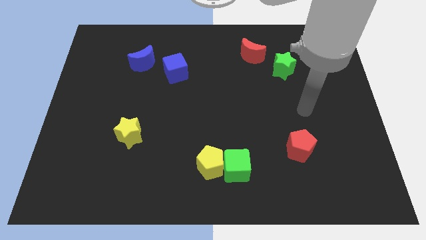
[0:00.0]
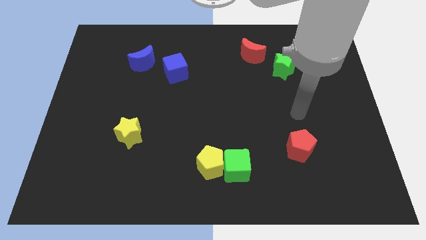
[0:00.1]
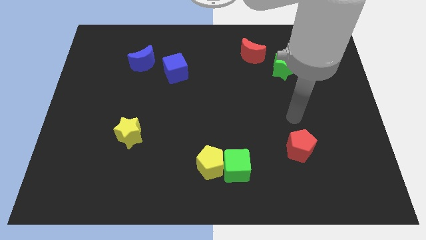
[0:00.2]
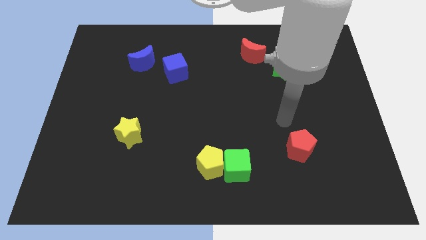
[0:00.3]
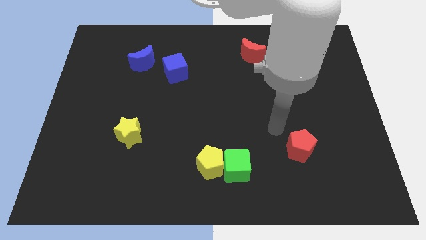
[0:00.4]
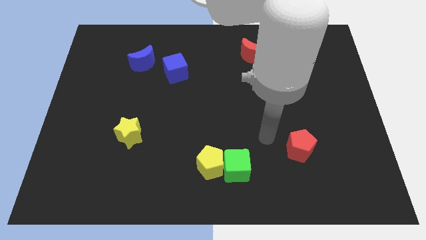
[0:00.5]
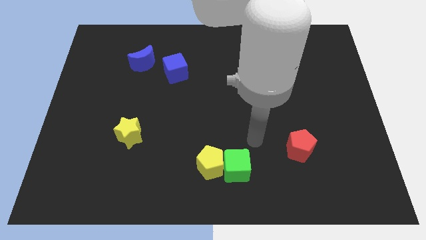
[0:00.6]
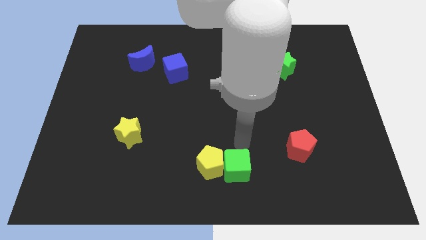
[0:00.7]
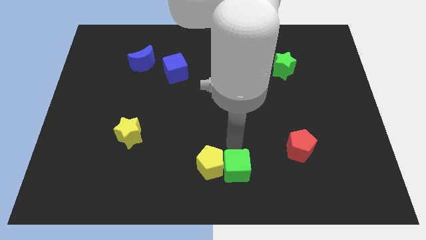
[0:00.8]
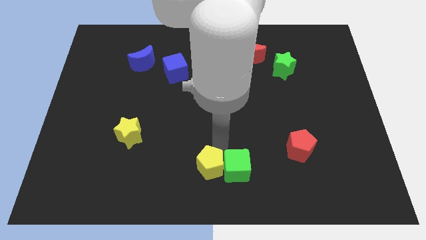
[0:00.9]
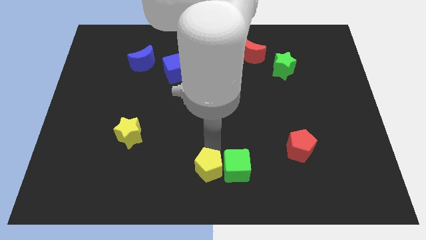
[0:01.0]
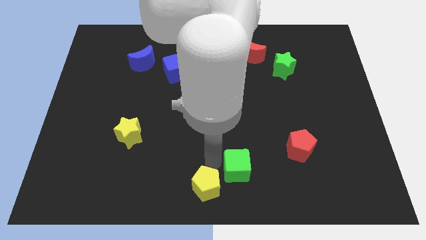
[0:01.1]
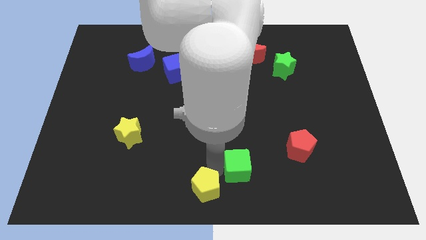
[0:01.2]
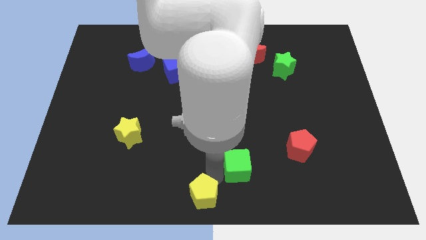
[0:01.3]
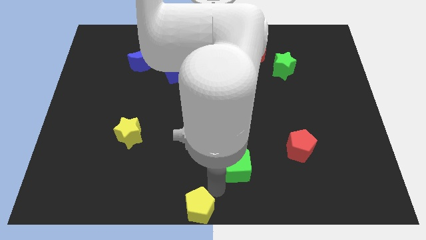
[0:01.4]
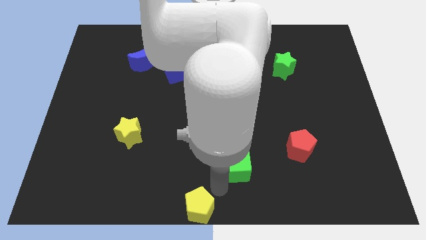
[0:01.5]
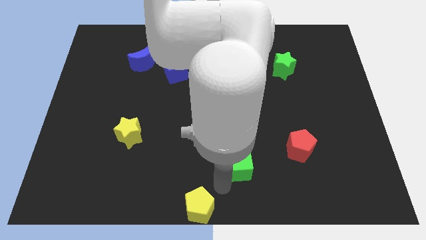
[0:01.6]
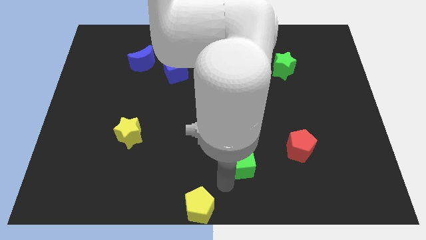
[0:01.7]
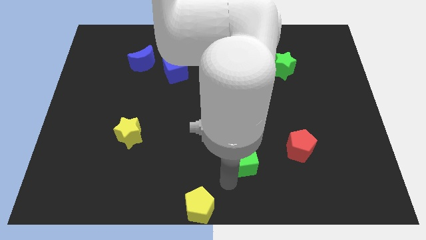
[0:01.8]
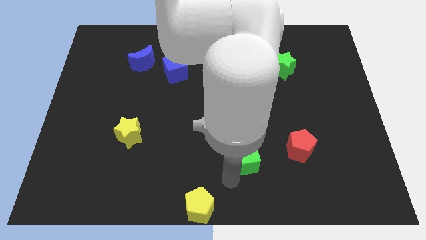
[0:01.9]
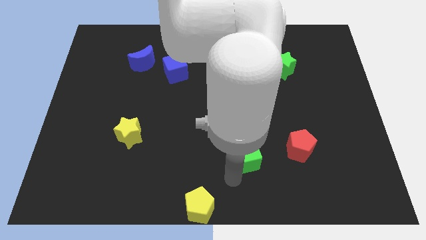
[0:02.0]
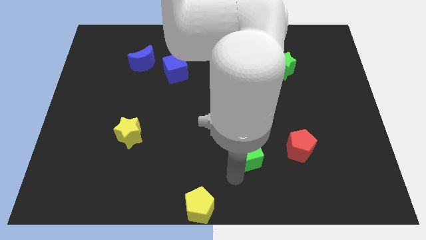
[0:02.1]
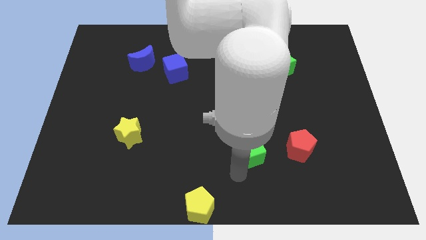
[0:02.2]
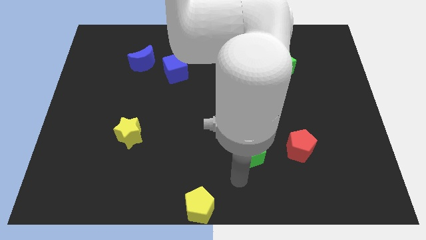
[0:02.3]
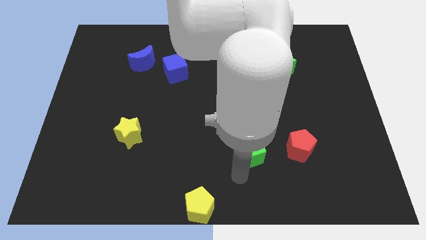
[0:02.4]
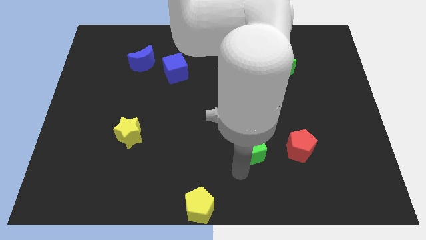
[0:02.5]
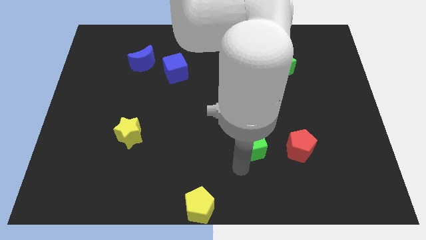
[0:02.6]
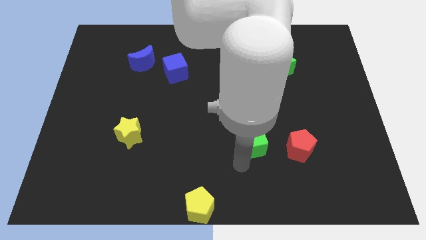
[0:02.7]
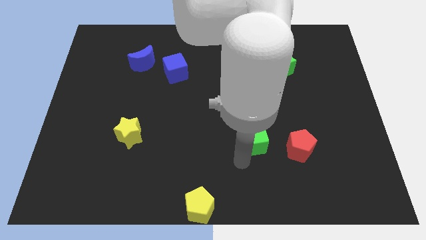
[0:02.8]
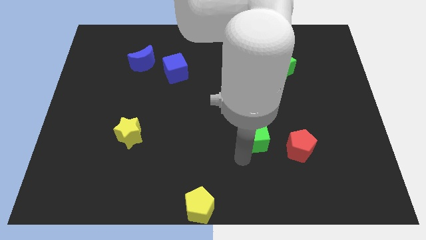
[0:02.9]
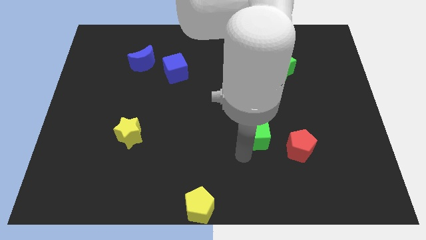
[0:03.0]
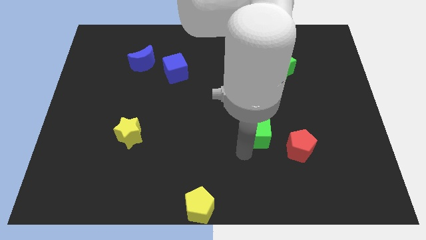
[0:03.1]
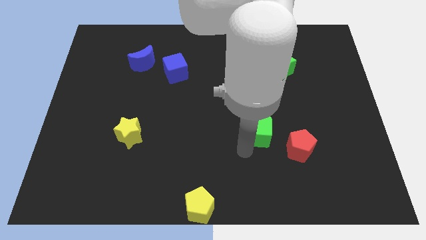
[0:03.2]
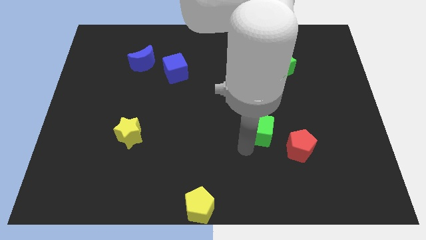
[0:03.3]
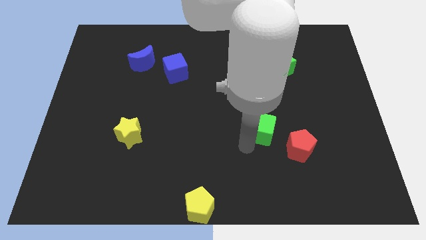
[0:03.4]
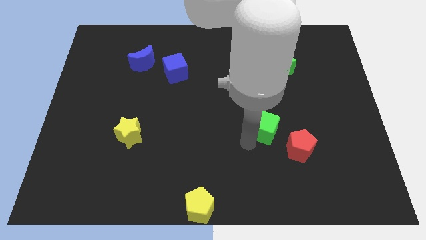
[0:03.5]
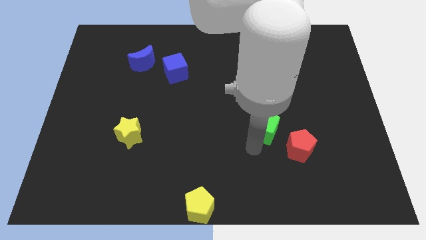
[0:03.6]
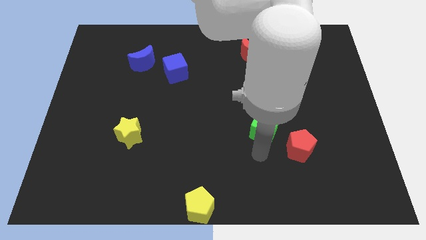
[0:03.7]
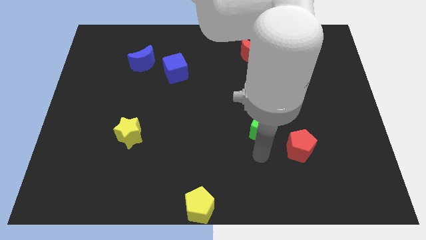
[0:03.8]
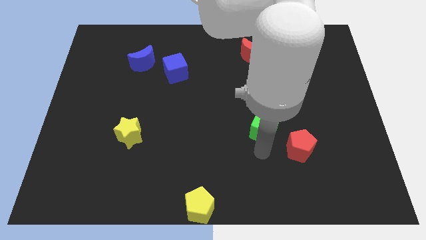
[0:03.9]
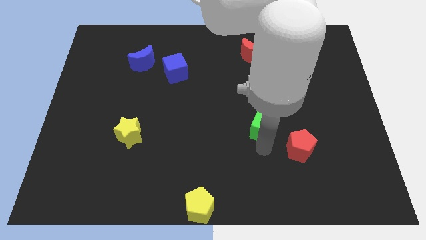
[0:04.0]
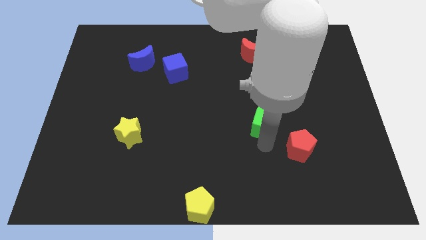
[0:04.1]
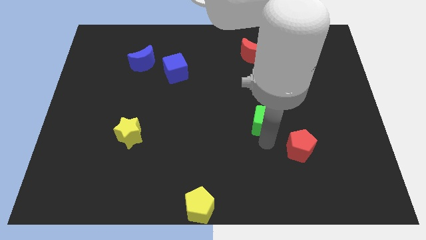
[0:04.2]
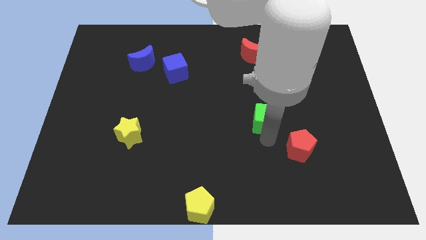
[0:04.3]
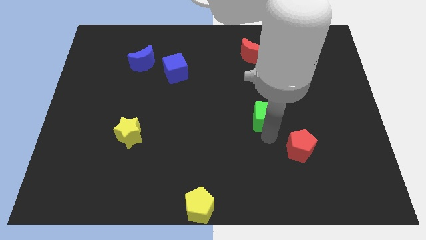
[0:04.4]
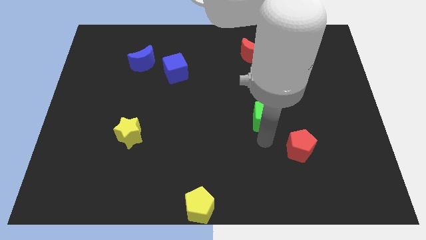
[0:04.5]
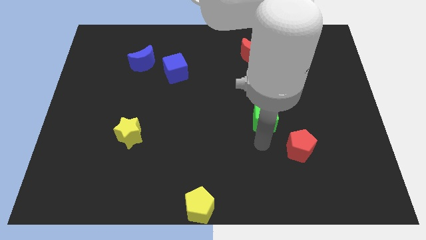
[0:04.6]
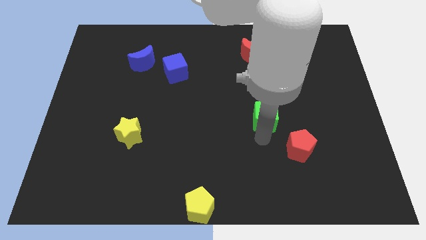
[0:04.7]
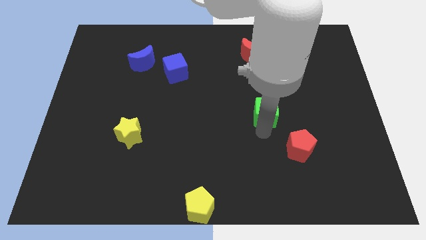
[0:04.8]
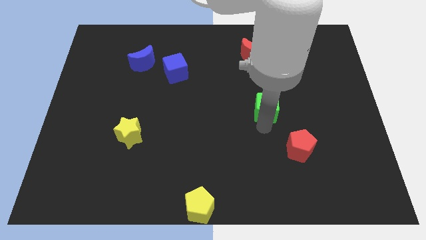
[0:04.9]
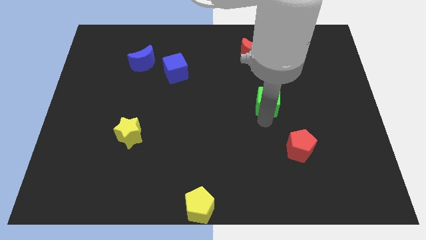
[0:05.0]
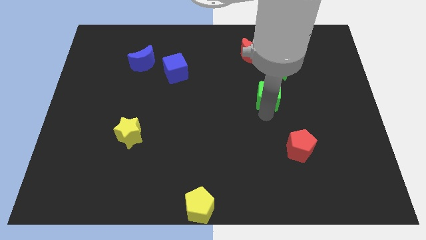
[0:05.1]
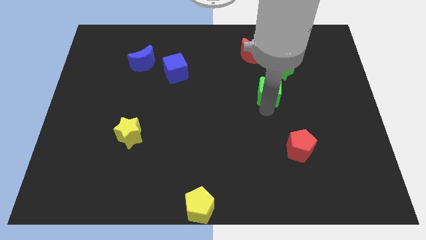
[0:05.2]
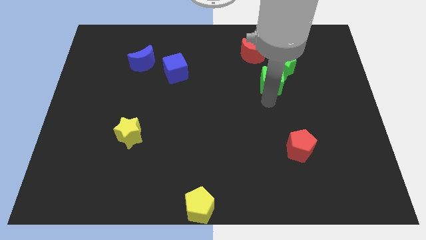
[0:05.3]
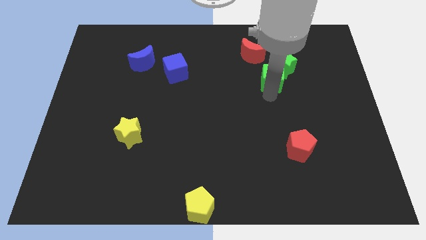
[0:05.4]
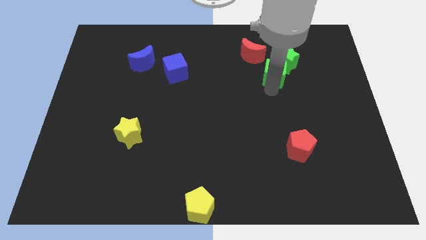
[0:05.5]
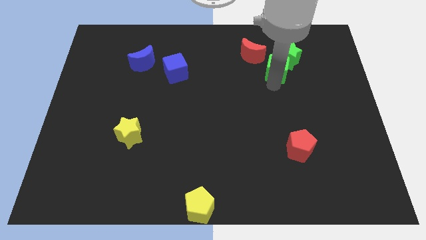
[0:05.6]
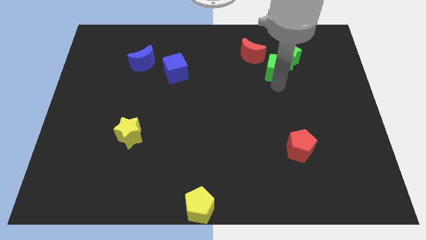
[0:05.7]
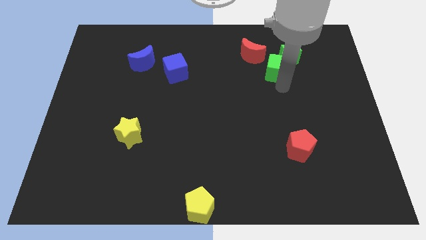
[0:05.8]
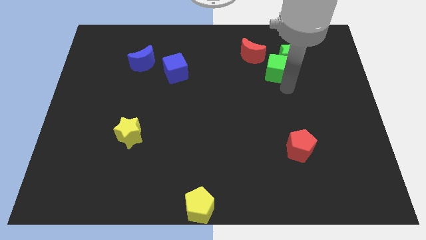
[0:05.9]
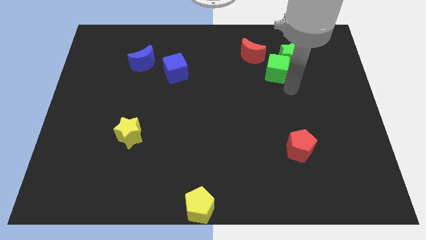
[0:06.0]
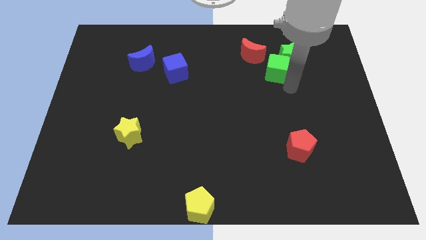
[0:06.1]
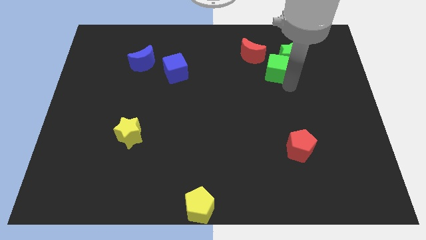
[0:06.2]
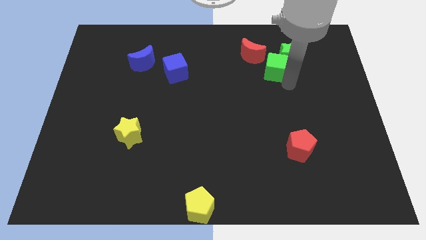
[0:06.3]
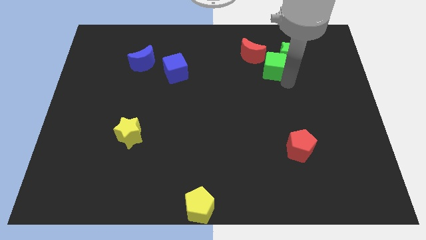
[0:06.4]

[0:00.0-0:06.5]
push the green cube to the right side of the red moon
